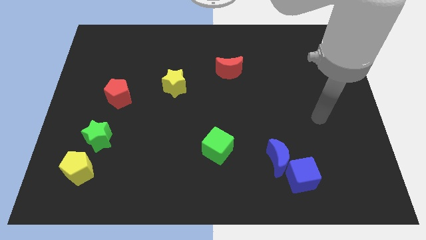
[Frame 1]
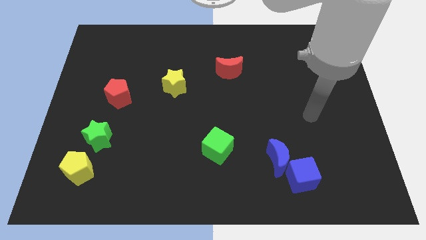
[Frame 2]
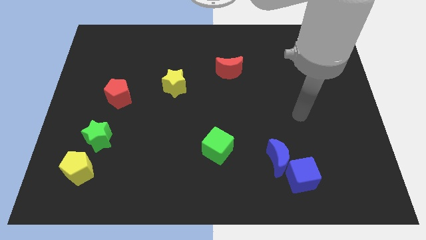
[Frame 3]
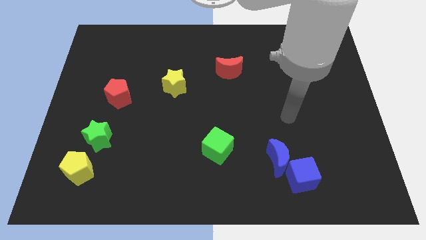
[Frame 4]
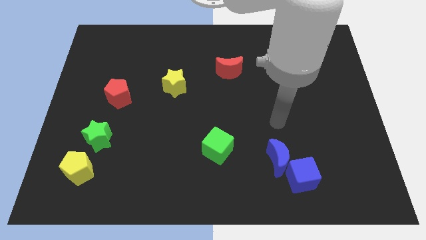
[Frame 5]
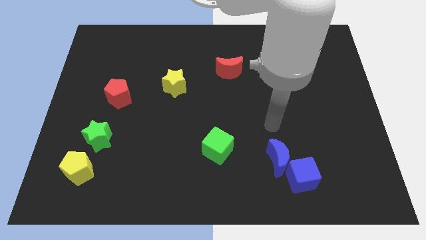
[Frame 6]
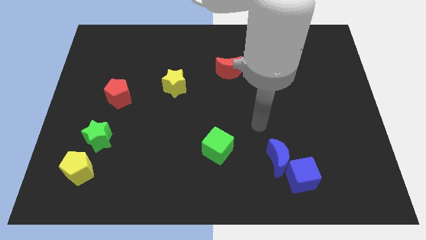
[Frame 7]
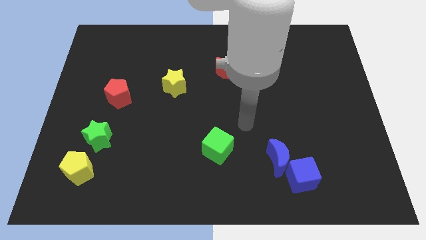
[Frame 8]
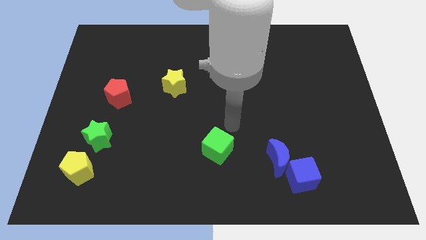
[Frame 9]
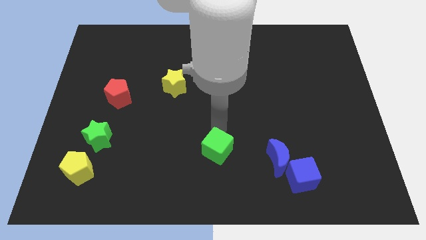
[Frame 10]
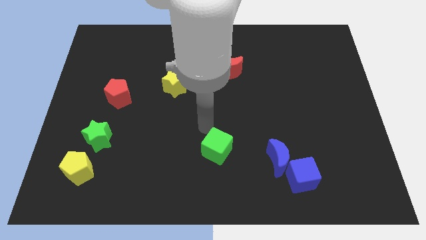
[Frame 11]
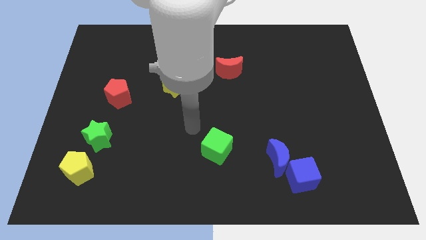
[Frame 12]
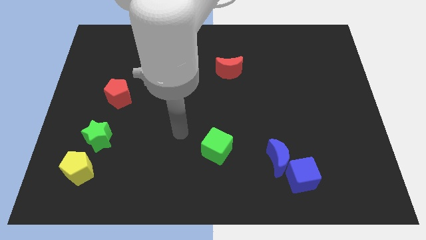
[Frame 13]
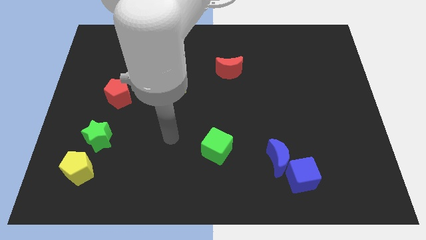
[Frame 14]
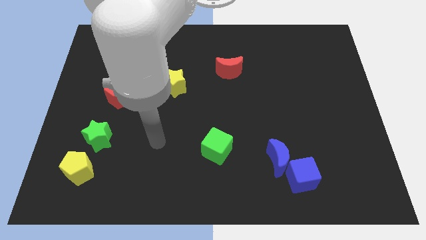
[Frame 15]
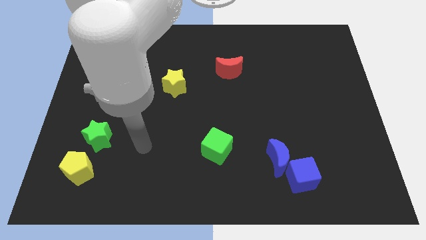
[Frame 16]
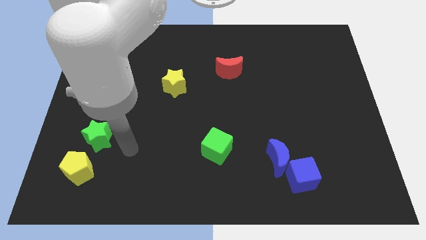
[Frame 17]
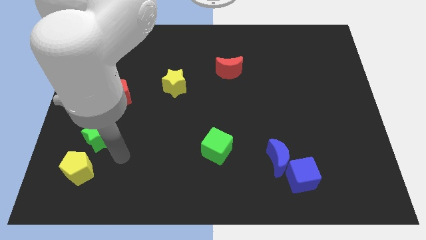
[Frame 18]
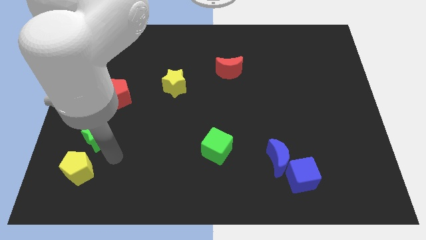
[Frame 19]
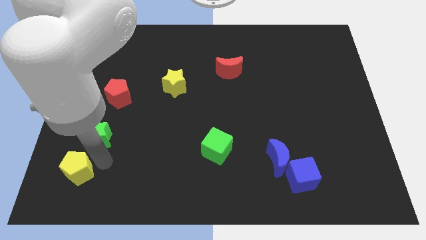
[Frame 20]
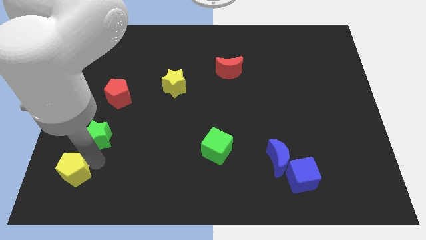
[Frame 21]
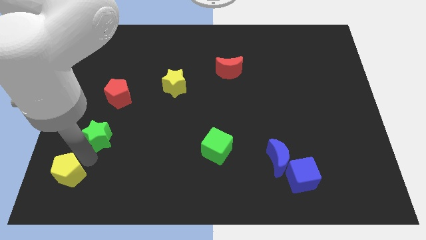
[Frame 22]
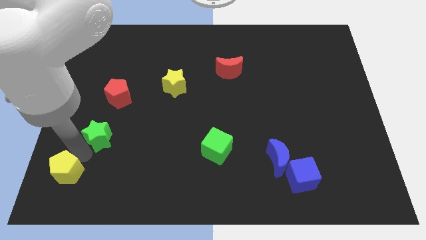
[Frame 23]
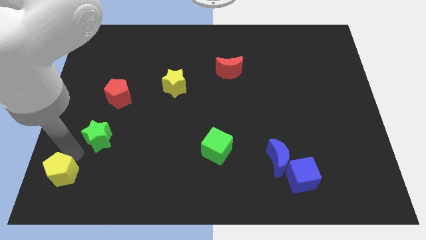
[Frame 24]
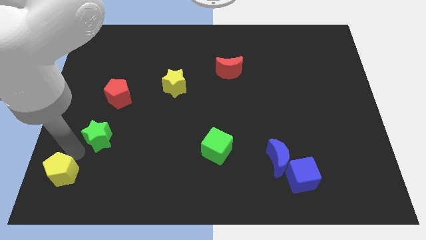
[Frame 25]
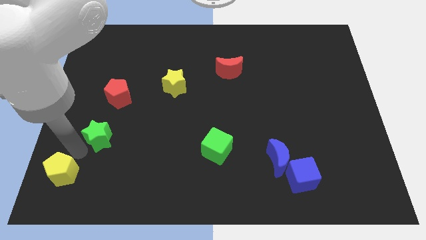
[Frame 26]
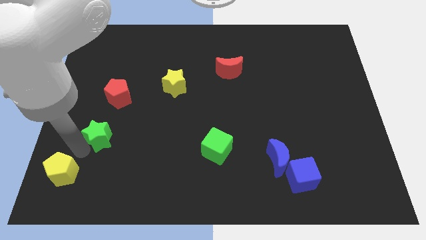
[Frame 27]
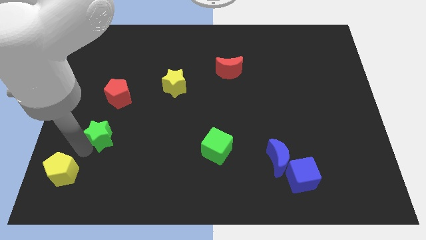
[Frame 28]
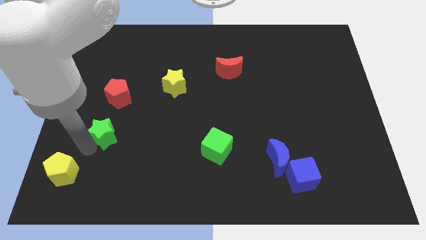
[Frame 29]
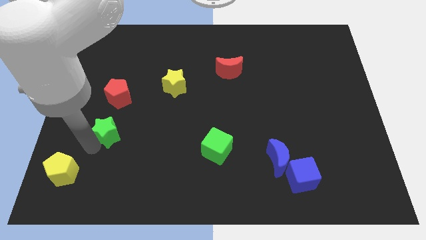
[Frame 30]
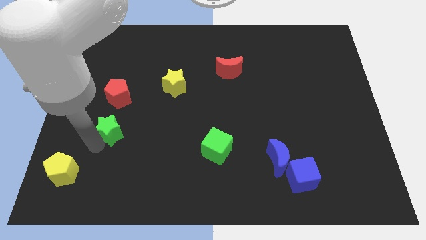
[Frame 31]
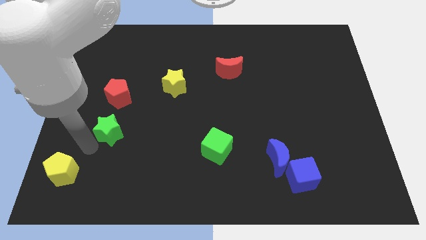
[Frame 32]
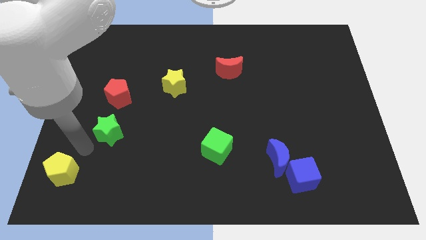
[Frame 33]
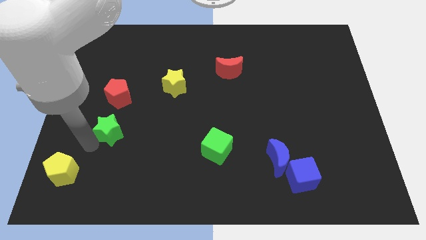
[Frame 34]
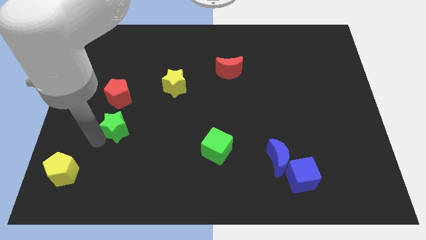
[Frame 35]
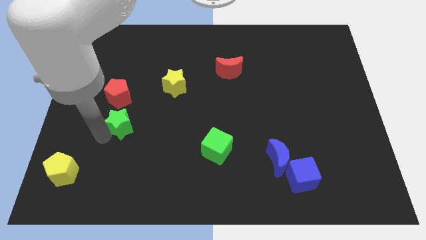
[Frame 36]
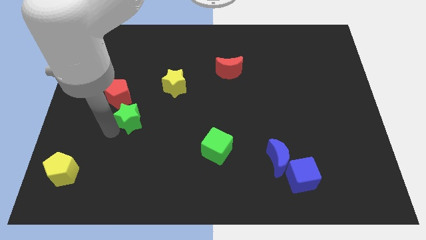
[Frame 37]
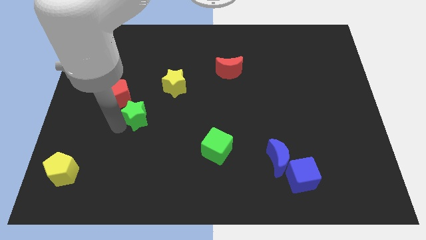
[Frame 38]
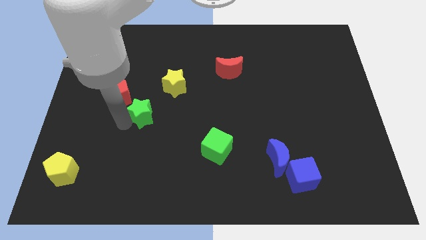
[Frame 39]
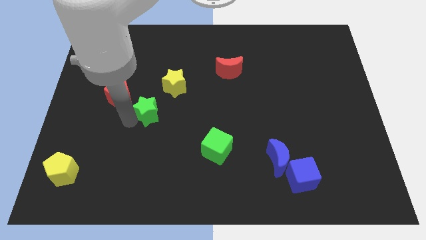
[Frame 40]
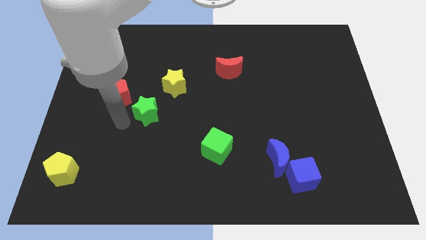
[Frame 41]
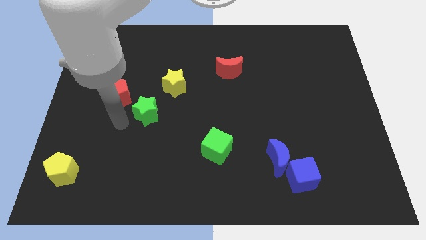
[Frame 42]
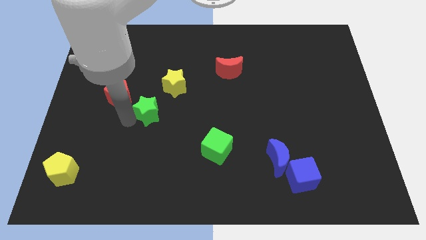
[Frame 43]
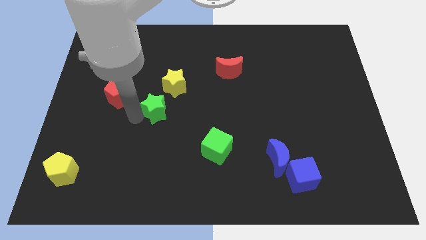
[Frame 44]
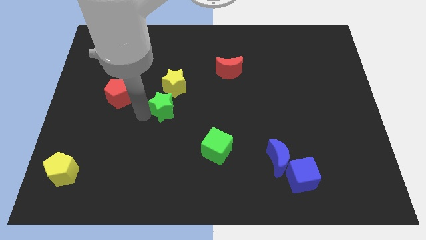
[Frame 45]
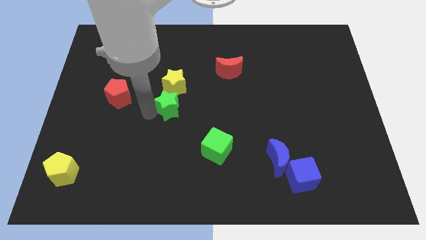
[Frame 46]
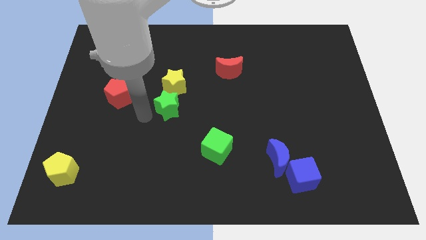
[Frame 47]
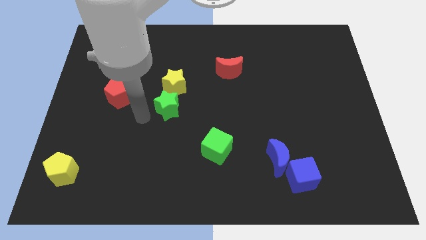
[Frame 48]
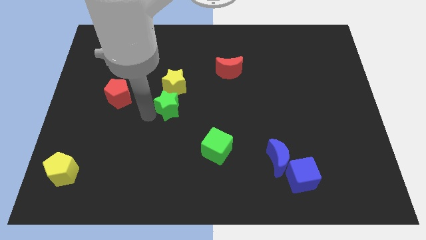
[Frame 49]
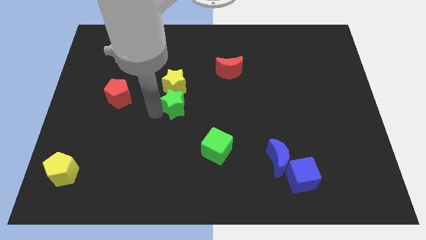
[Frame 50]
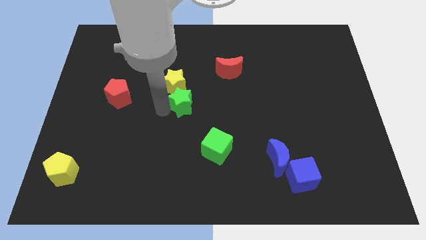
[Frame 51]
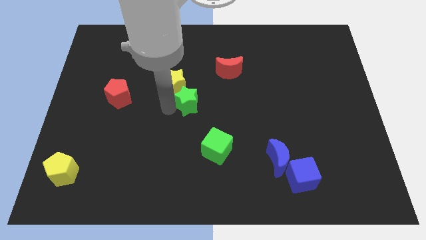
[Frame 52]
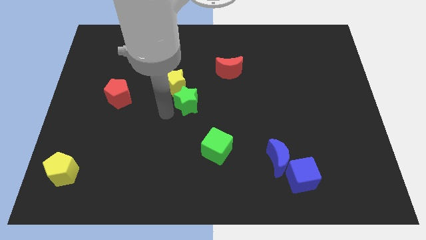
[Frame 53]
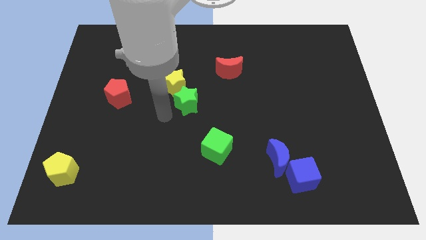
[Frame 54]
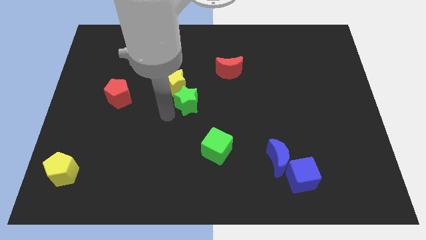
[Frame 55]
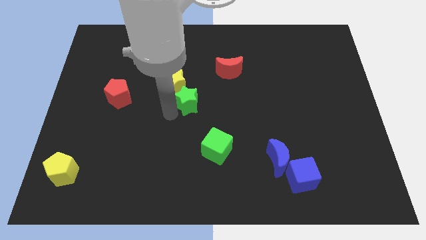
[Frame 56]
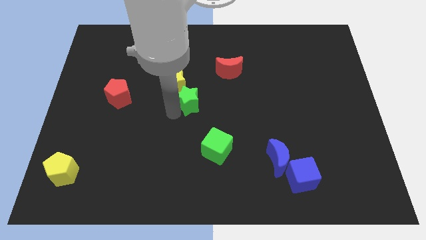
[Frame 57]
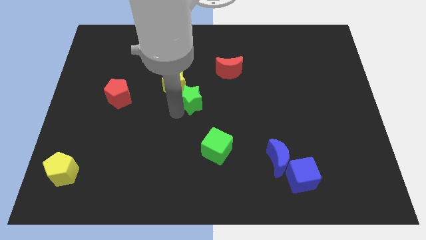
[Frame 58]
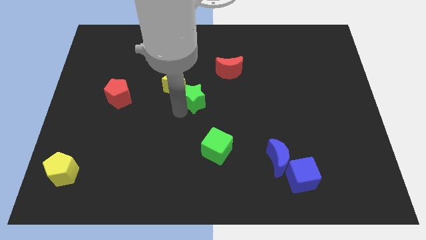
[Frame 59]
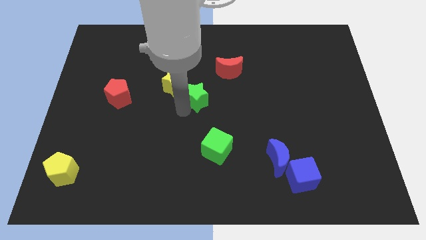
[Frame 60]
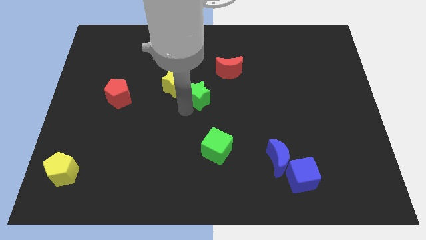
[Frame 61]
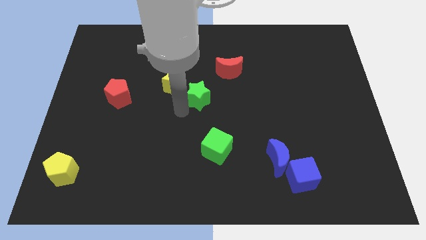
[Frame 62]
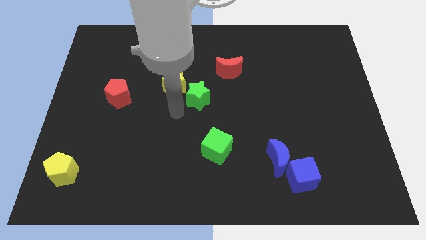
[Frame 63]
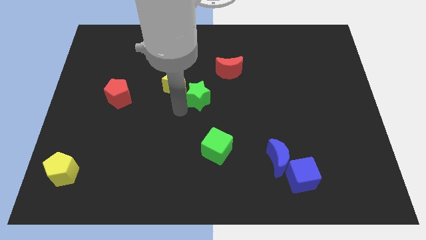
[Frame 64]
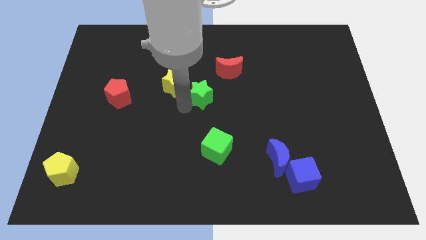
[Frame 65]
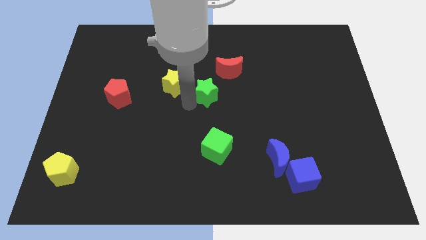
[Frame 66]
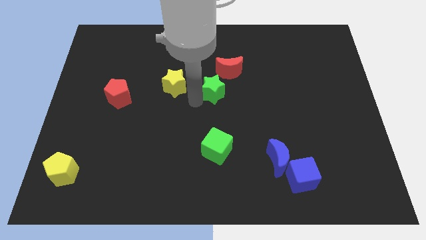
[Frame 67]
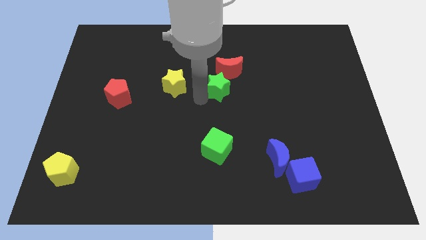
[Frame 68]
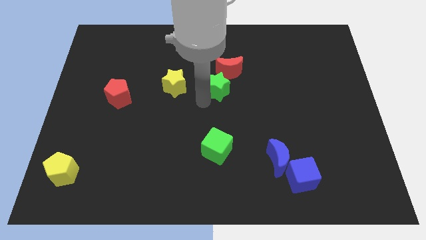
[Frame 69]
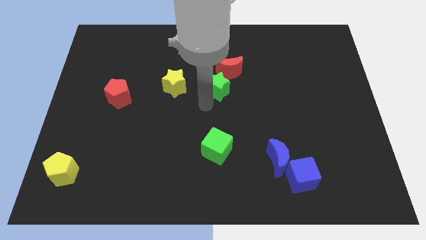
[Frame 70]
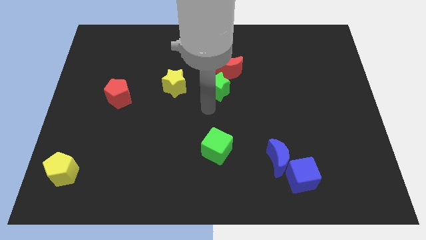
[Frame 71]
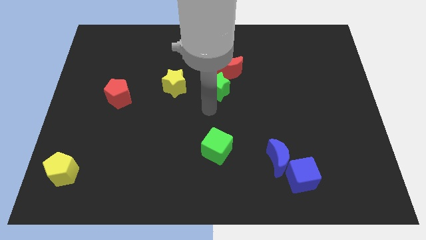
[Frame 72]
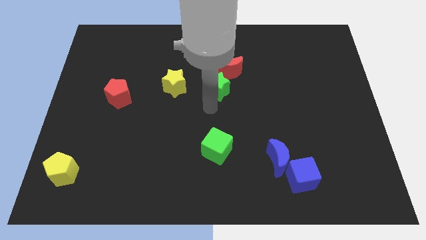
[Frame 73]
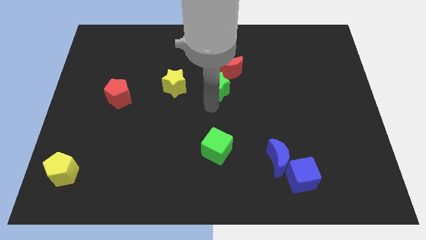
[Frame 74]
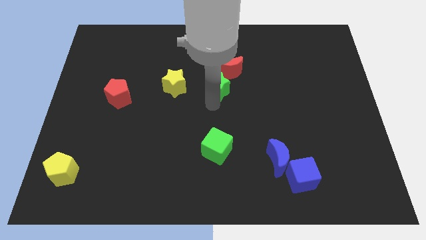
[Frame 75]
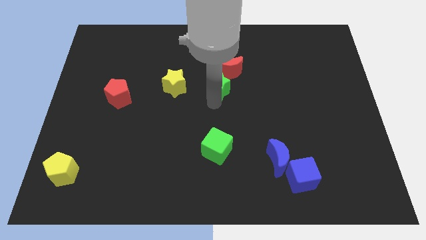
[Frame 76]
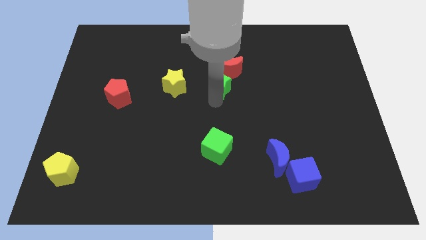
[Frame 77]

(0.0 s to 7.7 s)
put the green star close to the red moon
